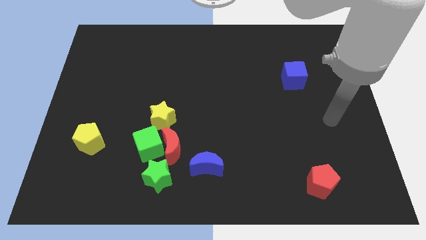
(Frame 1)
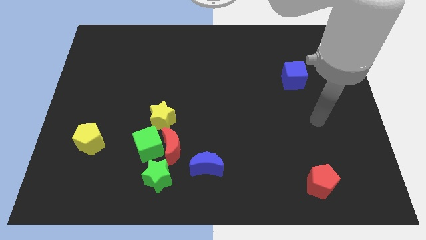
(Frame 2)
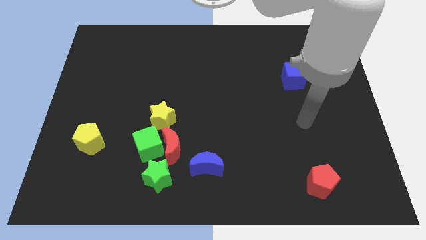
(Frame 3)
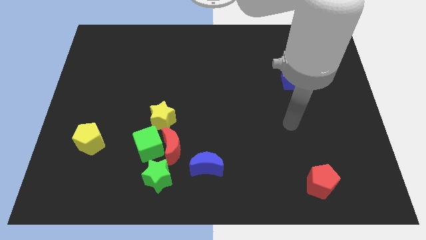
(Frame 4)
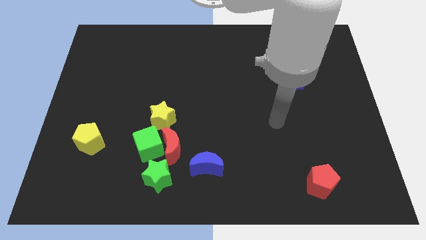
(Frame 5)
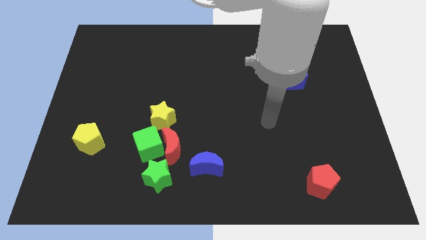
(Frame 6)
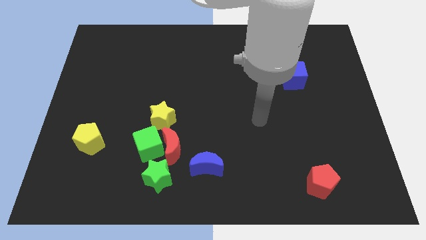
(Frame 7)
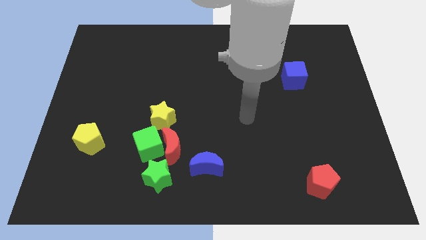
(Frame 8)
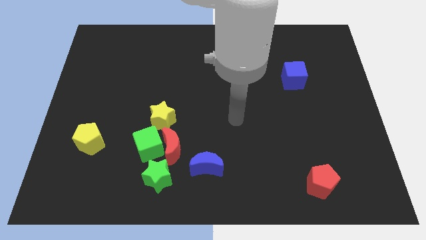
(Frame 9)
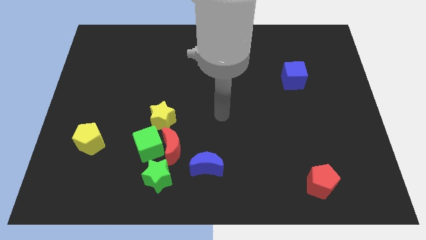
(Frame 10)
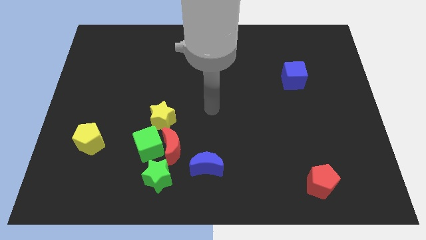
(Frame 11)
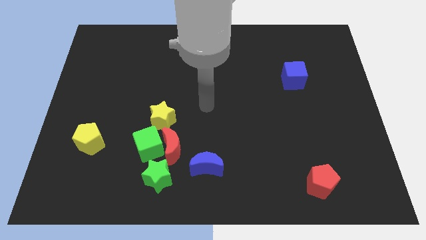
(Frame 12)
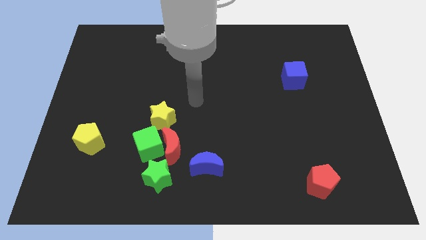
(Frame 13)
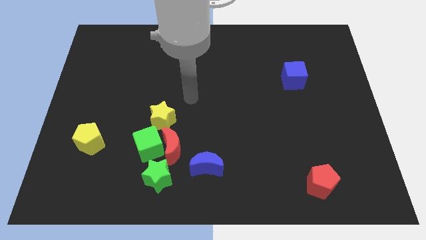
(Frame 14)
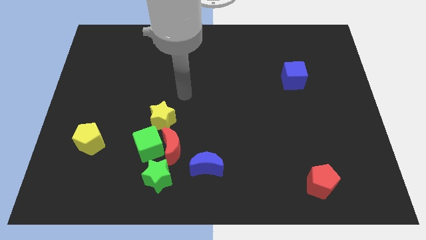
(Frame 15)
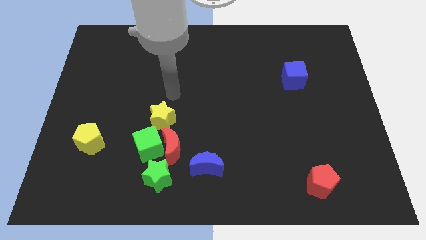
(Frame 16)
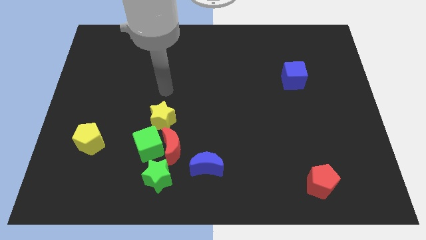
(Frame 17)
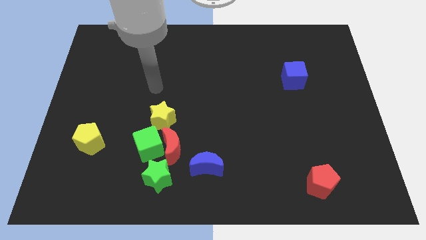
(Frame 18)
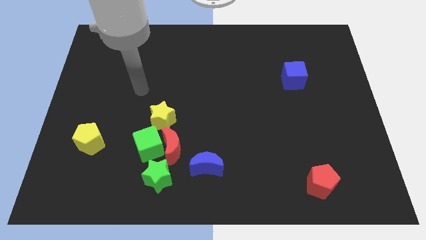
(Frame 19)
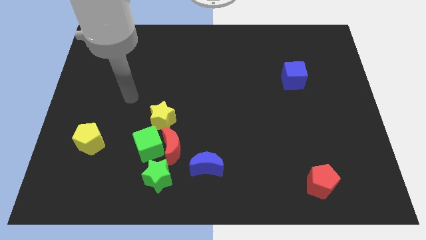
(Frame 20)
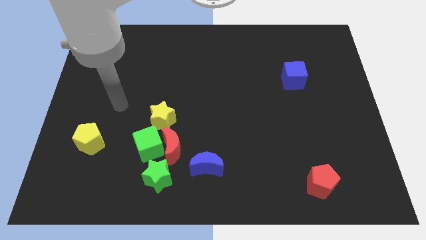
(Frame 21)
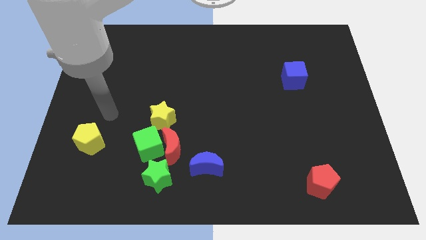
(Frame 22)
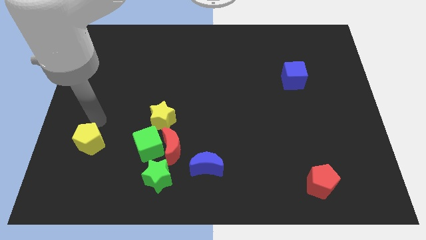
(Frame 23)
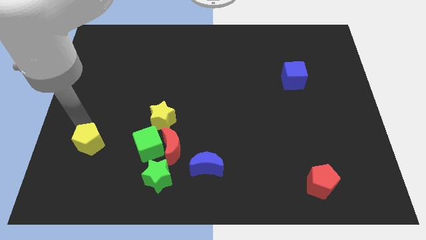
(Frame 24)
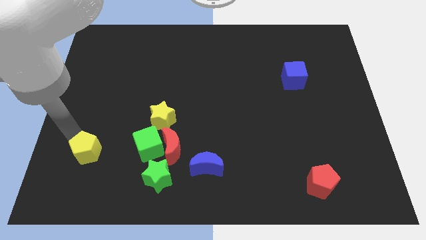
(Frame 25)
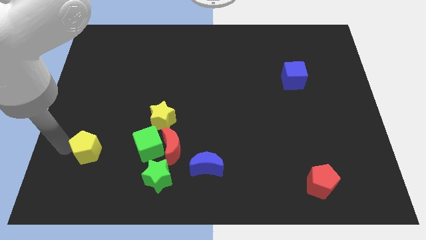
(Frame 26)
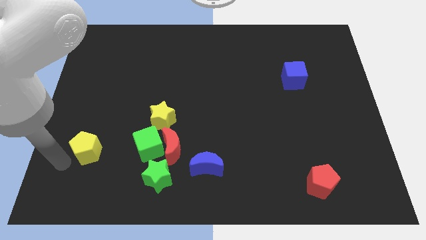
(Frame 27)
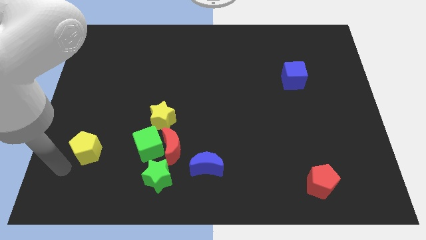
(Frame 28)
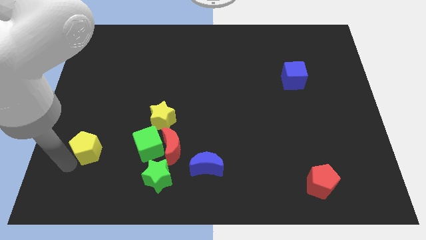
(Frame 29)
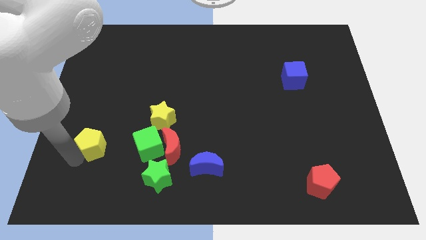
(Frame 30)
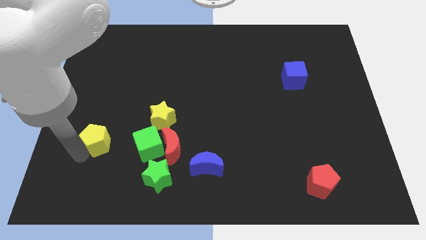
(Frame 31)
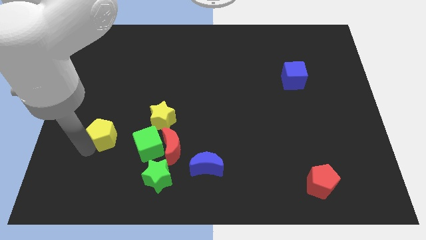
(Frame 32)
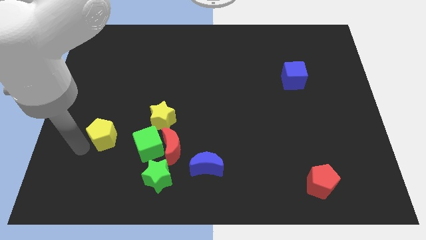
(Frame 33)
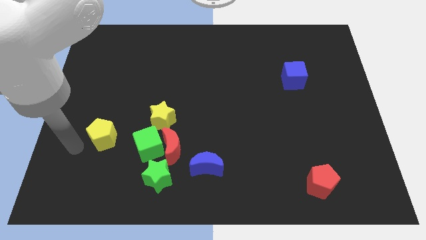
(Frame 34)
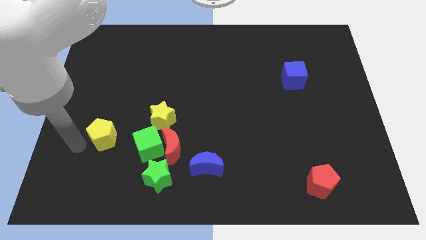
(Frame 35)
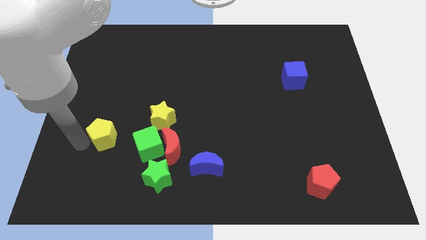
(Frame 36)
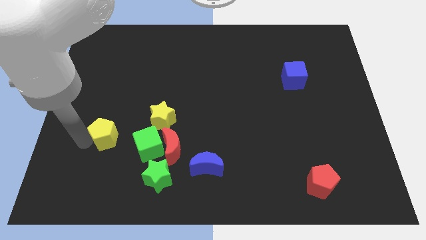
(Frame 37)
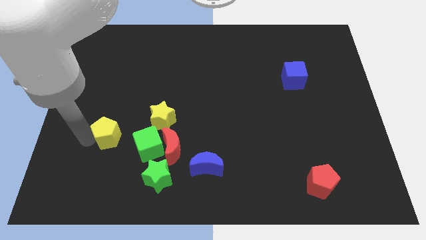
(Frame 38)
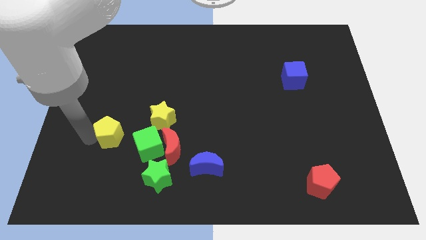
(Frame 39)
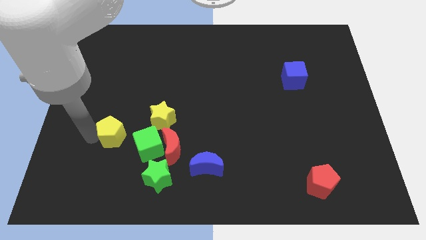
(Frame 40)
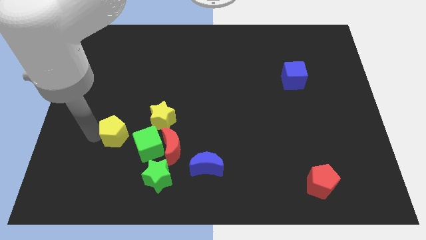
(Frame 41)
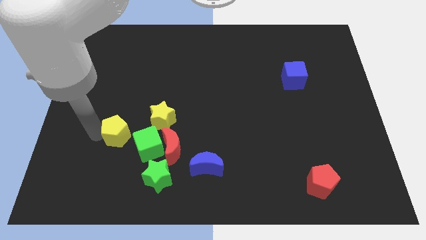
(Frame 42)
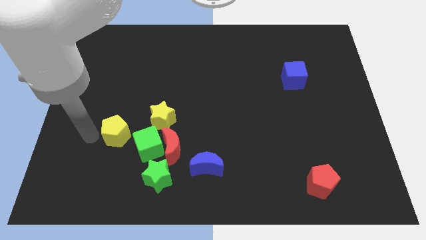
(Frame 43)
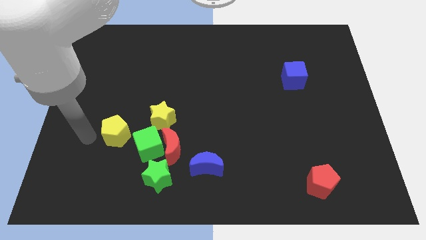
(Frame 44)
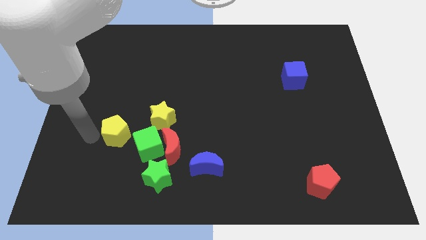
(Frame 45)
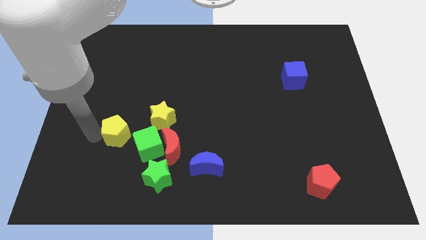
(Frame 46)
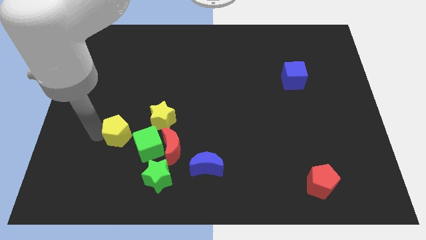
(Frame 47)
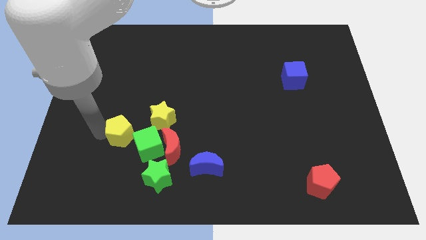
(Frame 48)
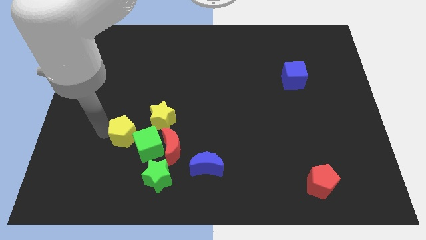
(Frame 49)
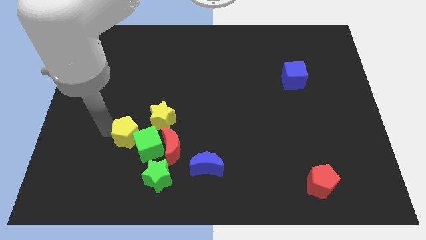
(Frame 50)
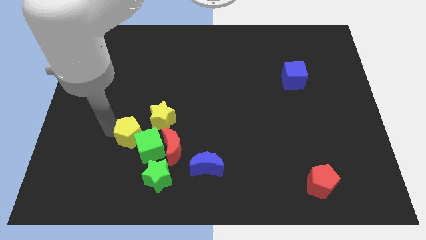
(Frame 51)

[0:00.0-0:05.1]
slide the yellow pentagon to the top left side of the red moon

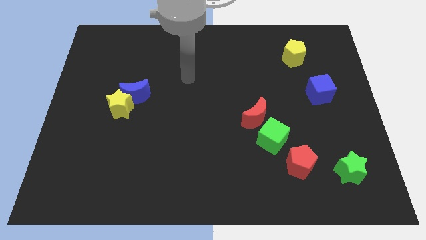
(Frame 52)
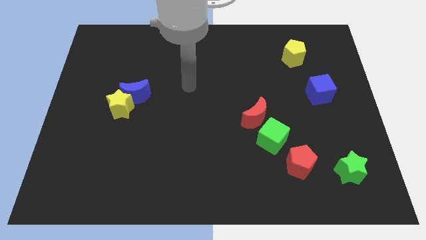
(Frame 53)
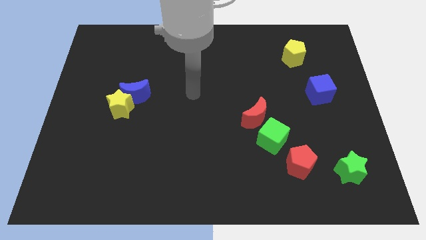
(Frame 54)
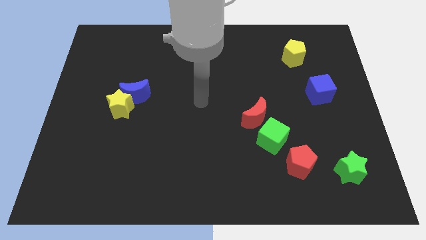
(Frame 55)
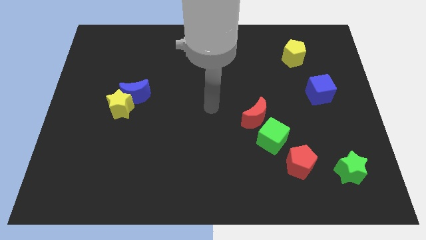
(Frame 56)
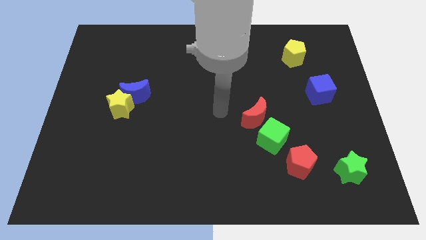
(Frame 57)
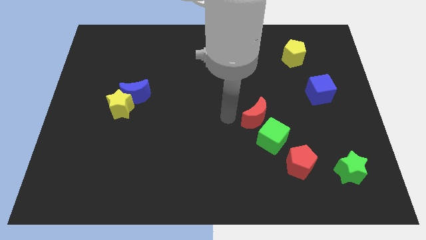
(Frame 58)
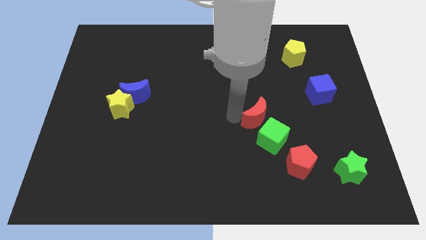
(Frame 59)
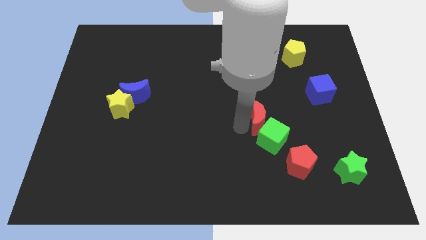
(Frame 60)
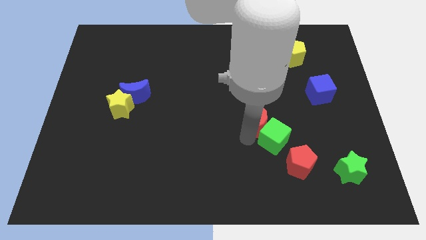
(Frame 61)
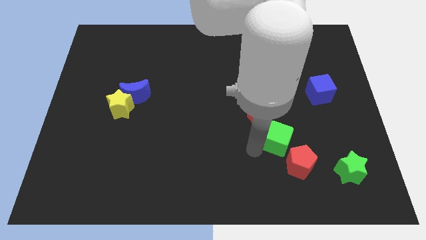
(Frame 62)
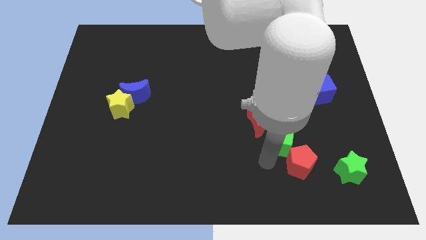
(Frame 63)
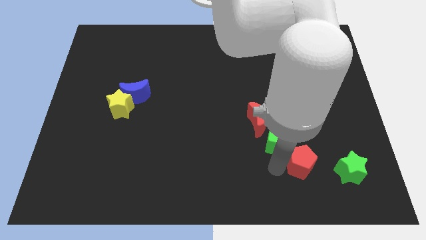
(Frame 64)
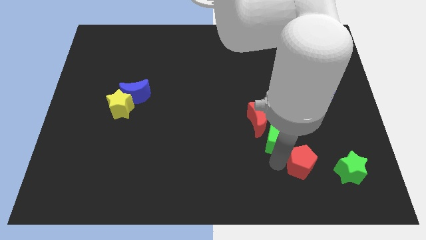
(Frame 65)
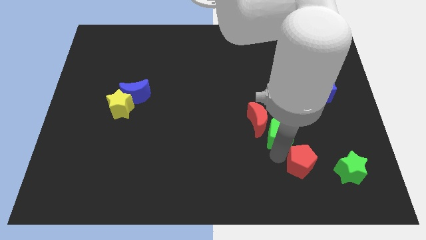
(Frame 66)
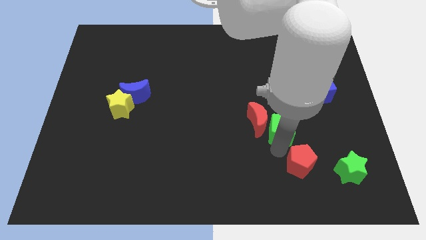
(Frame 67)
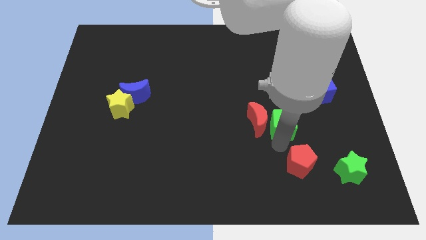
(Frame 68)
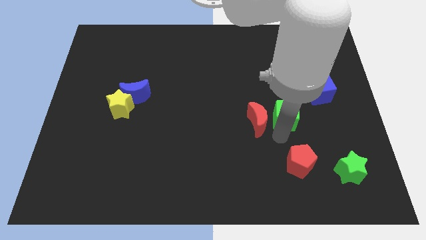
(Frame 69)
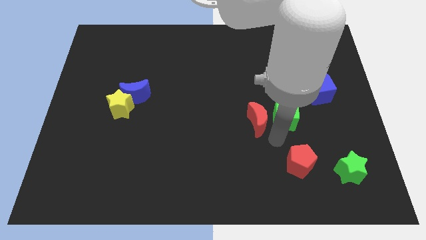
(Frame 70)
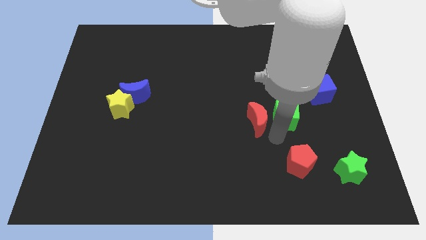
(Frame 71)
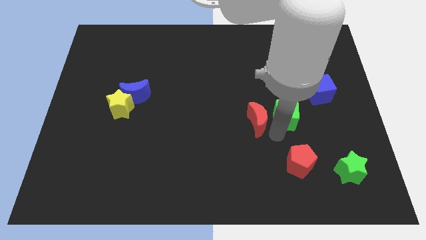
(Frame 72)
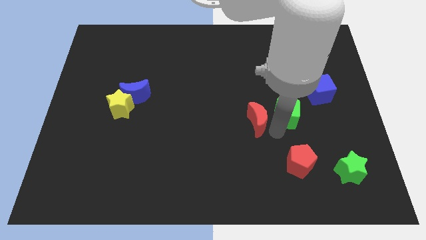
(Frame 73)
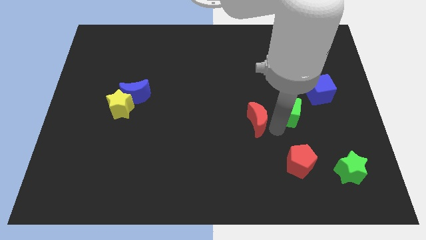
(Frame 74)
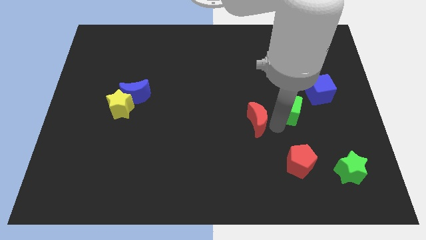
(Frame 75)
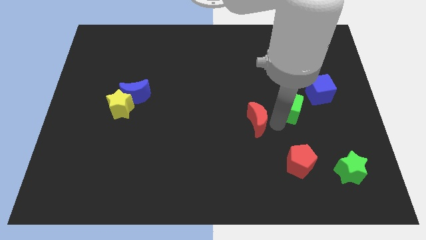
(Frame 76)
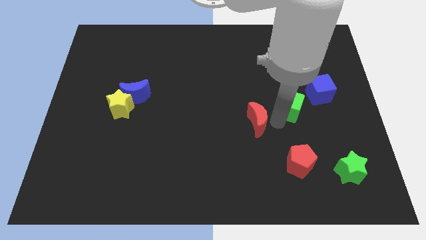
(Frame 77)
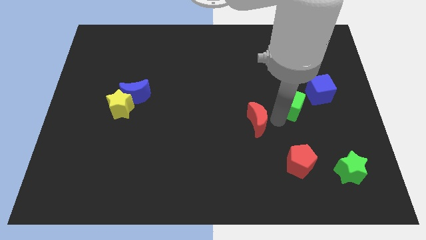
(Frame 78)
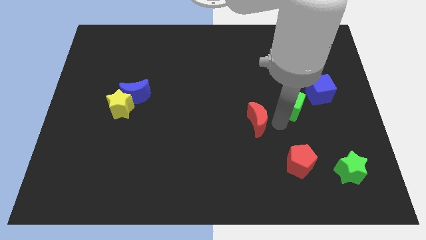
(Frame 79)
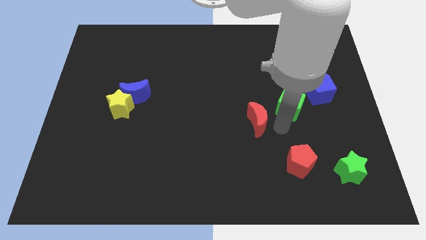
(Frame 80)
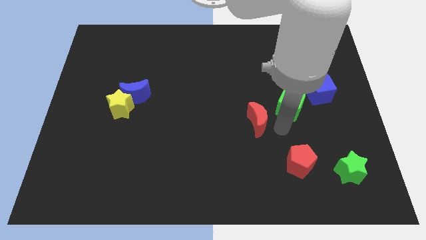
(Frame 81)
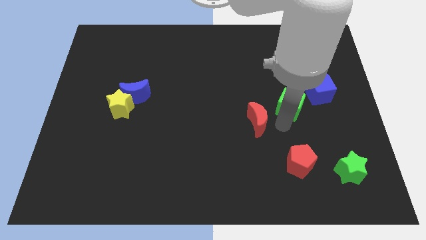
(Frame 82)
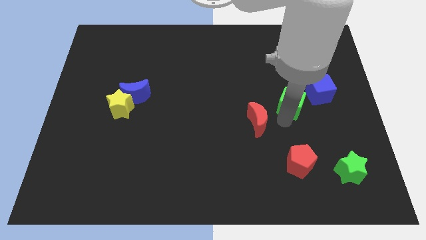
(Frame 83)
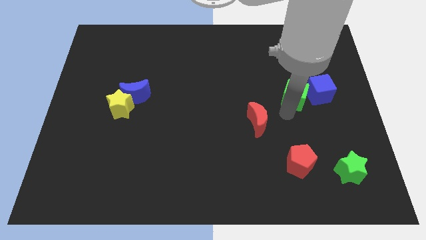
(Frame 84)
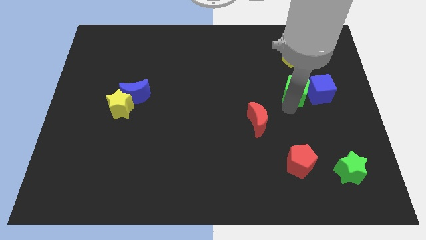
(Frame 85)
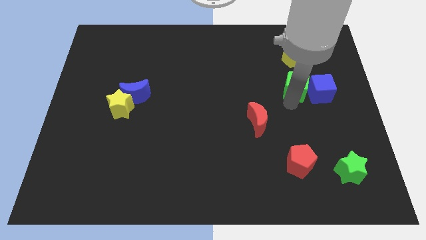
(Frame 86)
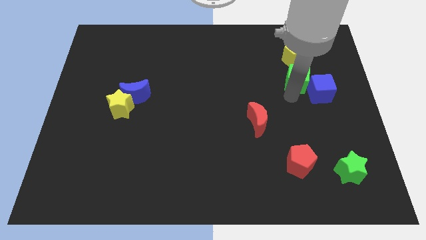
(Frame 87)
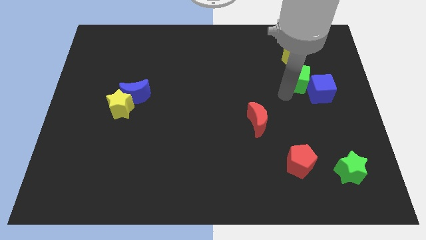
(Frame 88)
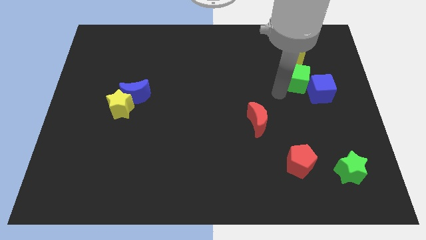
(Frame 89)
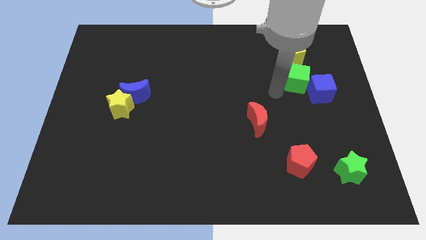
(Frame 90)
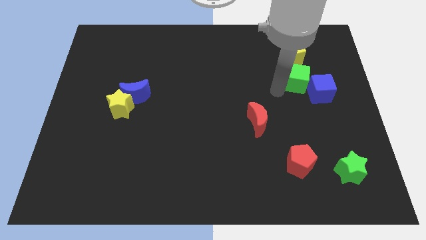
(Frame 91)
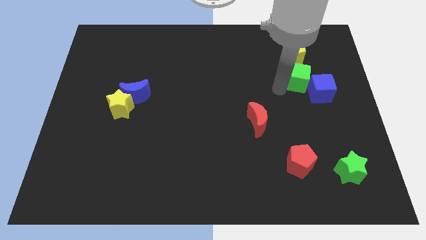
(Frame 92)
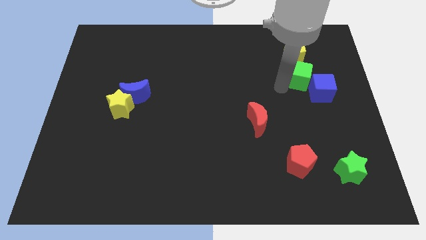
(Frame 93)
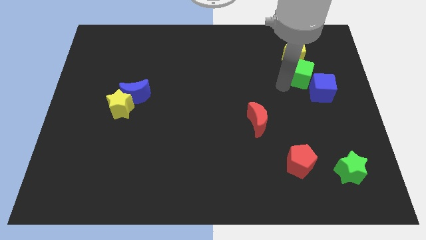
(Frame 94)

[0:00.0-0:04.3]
put the green cube diagonally down and to the right of the yellow pentagon
